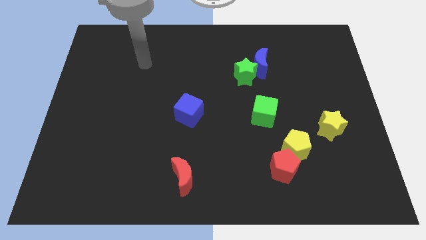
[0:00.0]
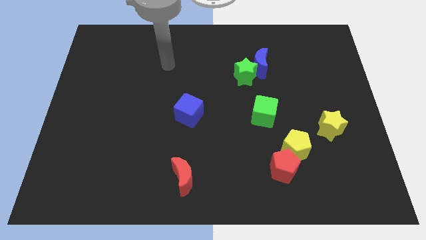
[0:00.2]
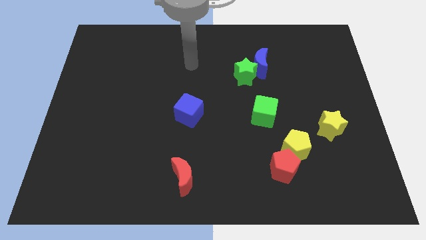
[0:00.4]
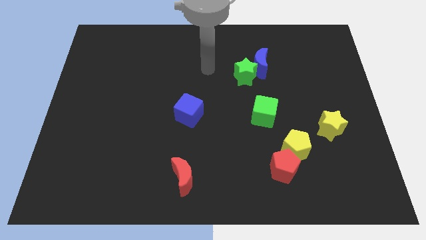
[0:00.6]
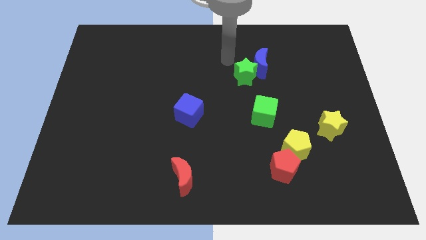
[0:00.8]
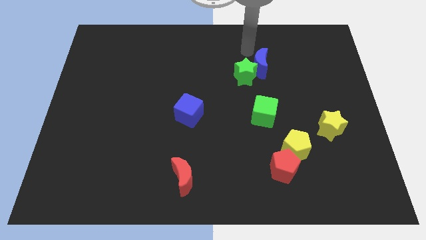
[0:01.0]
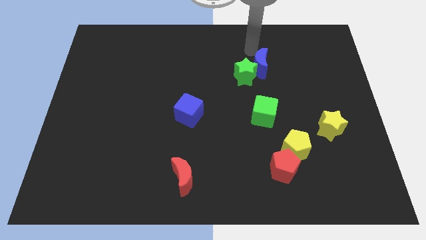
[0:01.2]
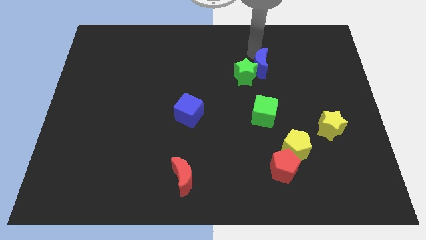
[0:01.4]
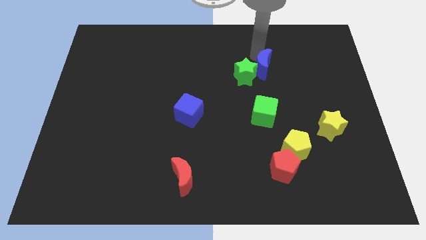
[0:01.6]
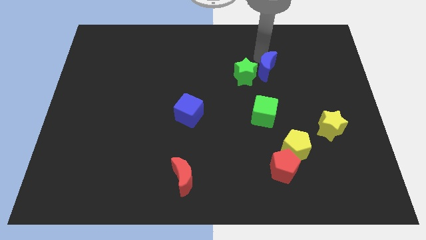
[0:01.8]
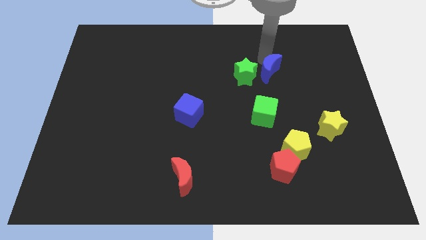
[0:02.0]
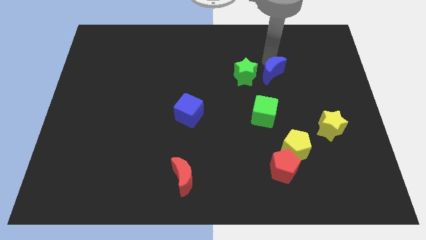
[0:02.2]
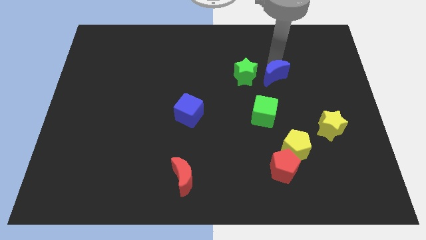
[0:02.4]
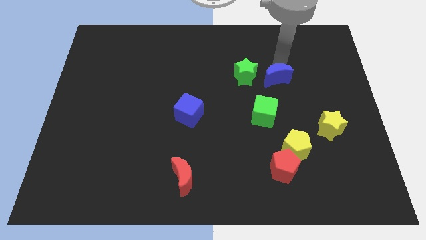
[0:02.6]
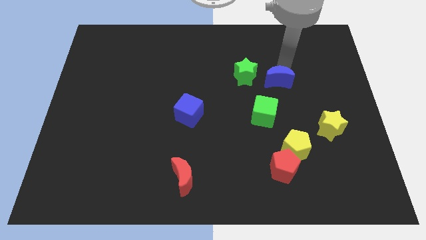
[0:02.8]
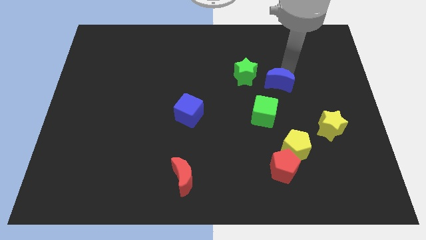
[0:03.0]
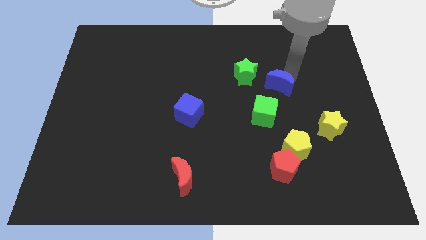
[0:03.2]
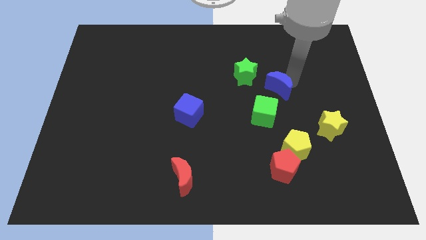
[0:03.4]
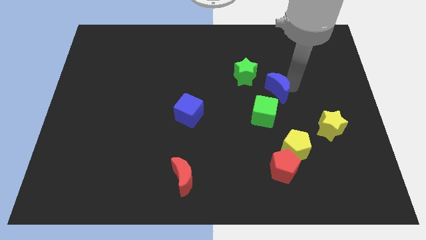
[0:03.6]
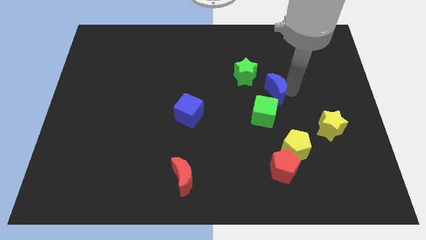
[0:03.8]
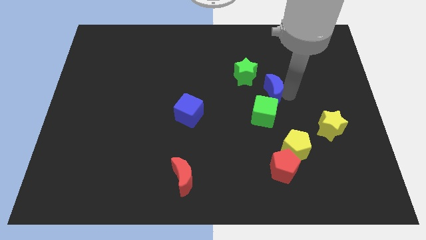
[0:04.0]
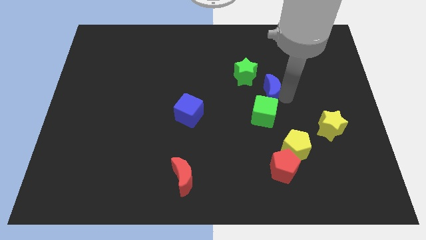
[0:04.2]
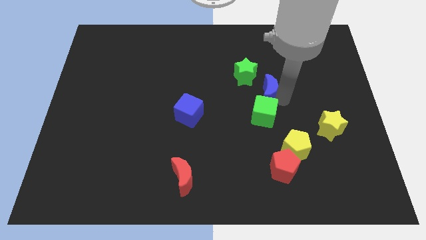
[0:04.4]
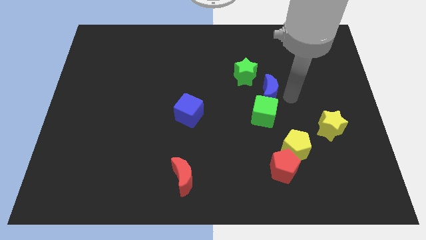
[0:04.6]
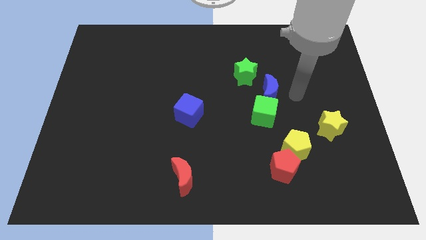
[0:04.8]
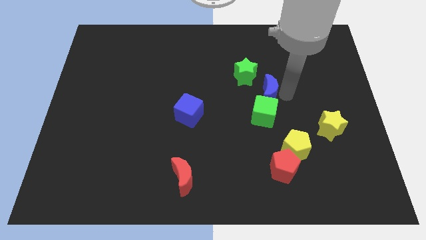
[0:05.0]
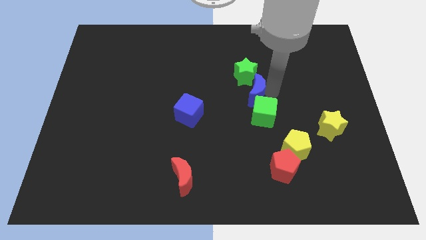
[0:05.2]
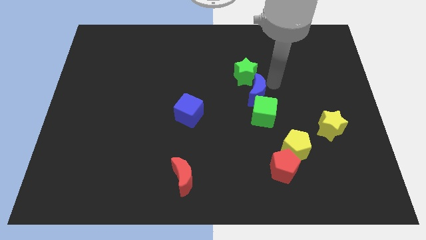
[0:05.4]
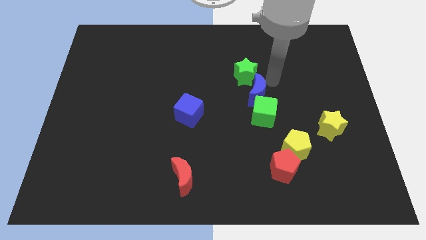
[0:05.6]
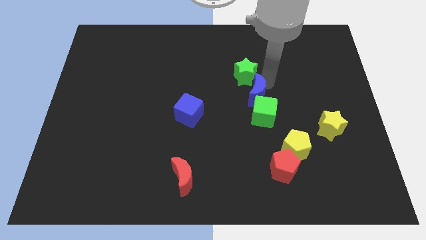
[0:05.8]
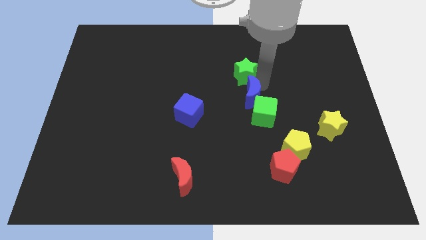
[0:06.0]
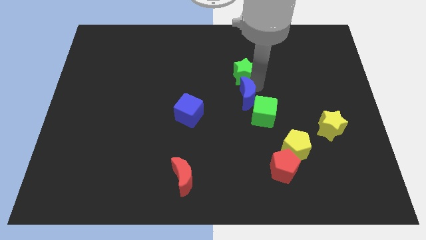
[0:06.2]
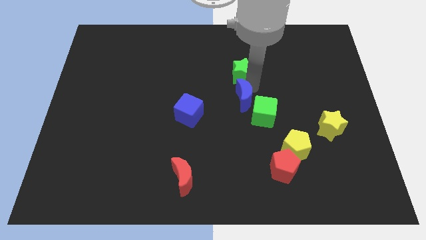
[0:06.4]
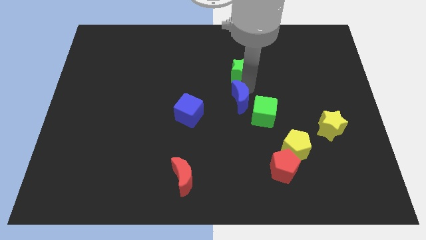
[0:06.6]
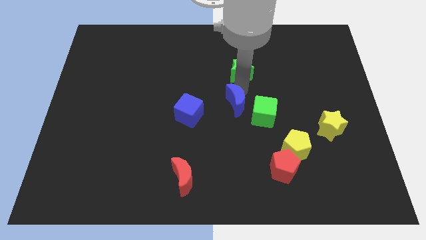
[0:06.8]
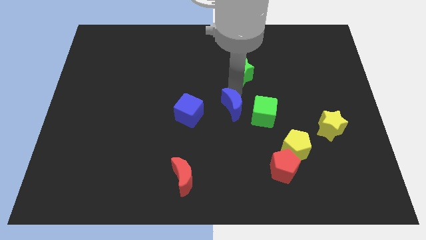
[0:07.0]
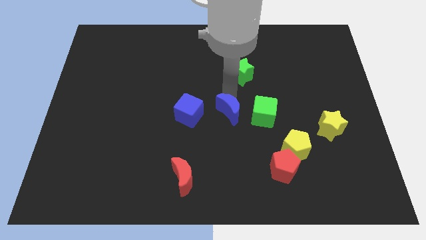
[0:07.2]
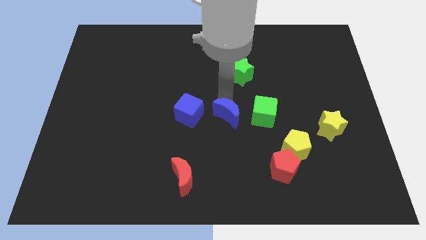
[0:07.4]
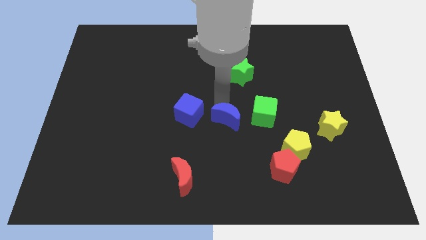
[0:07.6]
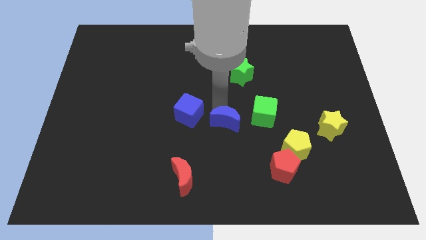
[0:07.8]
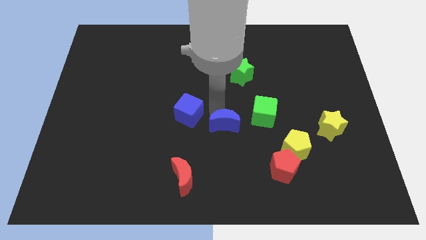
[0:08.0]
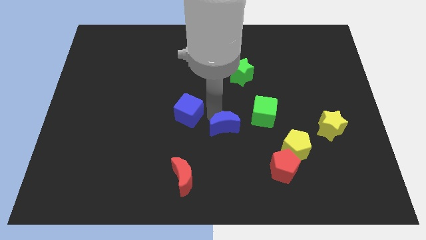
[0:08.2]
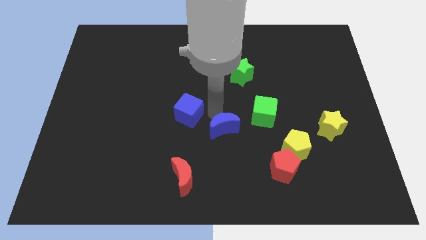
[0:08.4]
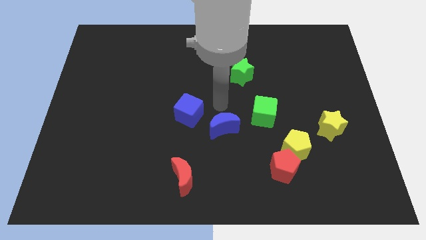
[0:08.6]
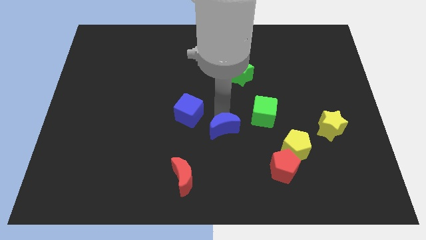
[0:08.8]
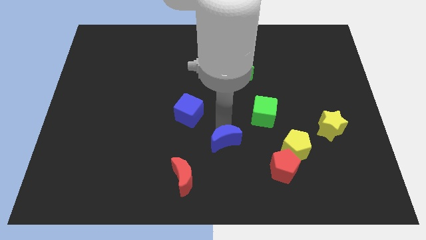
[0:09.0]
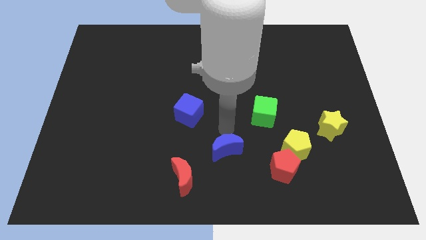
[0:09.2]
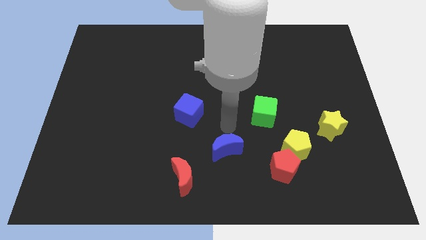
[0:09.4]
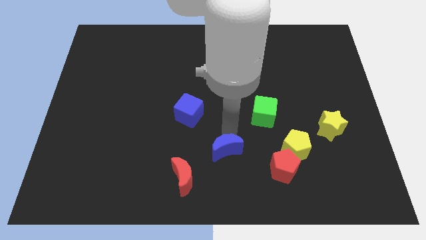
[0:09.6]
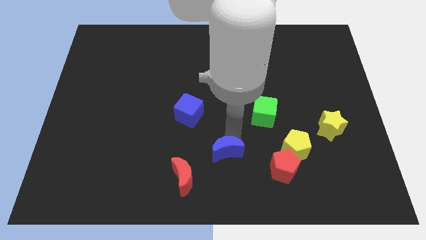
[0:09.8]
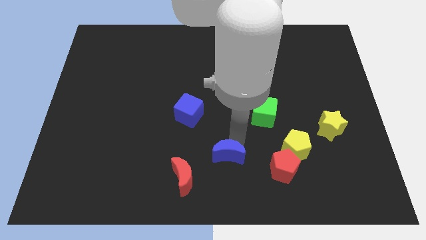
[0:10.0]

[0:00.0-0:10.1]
push the blue moon to the bottom

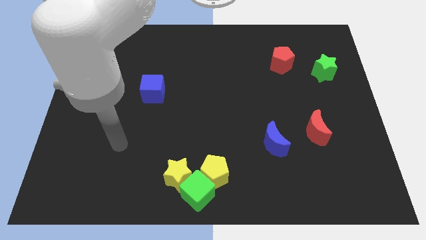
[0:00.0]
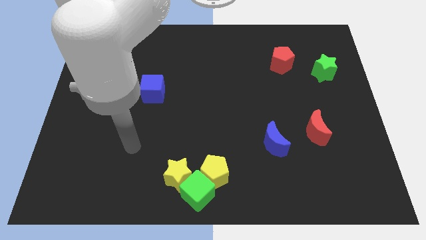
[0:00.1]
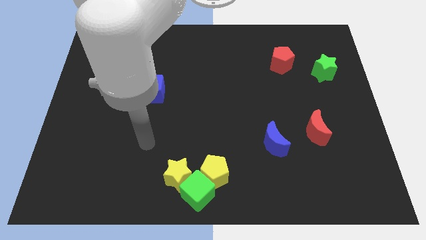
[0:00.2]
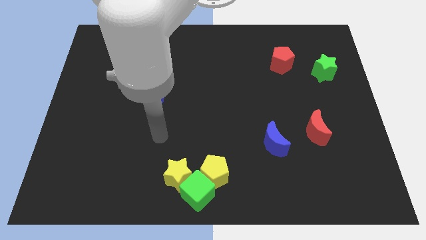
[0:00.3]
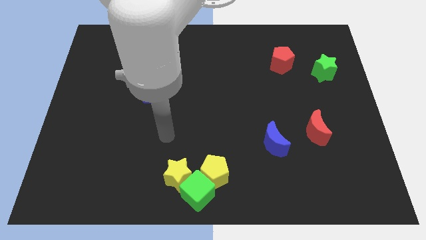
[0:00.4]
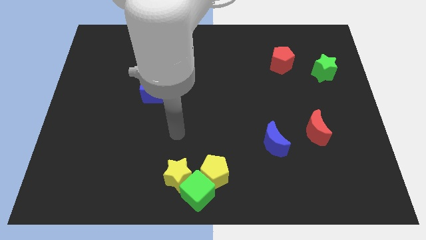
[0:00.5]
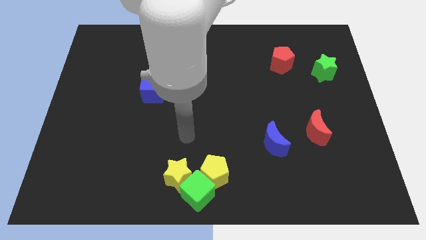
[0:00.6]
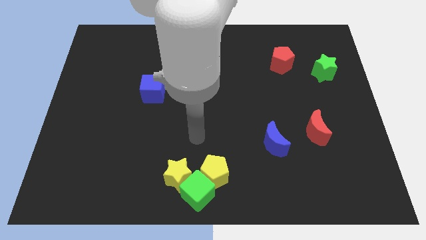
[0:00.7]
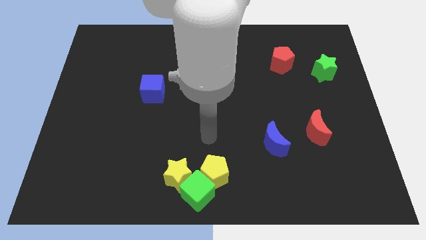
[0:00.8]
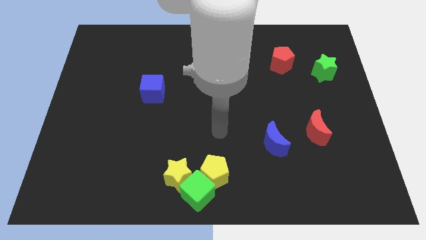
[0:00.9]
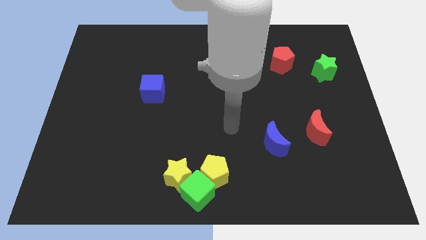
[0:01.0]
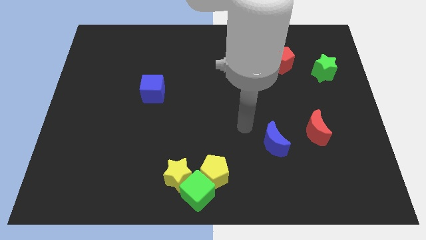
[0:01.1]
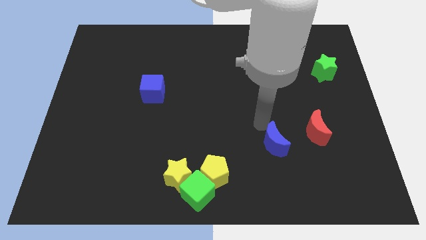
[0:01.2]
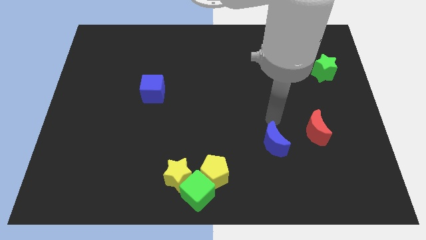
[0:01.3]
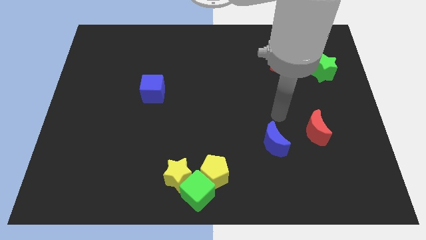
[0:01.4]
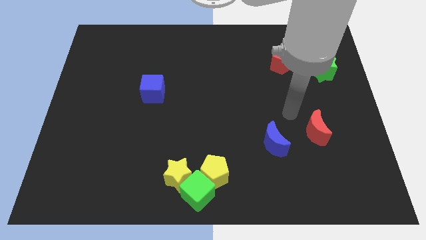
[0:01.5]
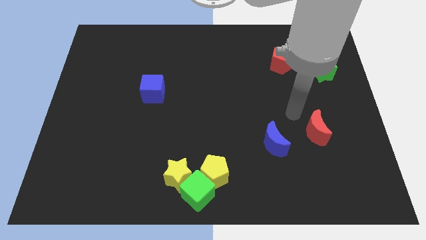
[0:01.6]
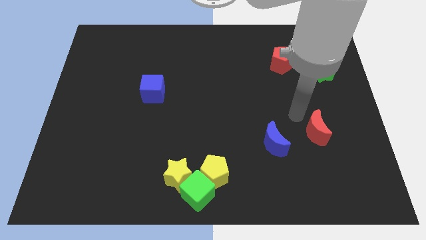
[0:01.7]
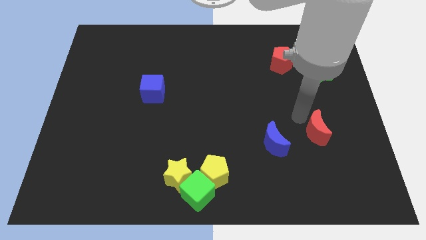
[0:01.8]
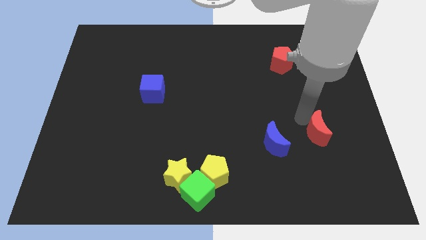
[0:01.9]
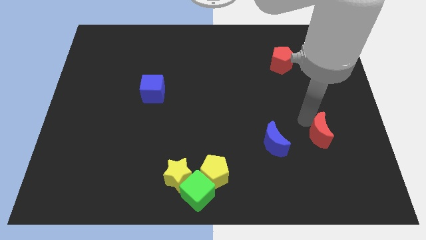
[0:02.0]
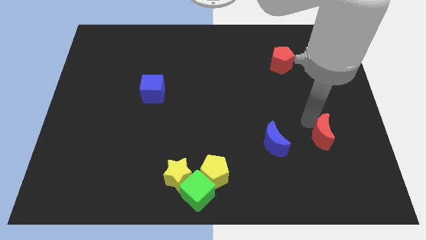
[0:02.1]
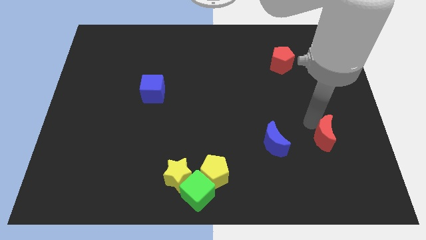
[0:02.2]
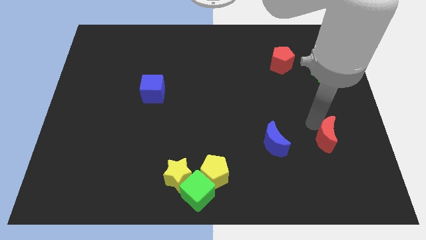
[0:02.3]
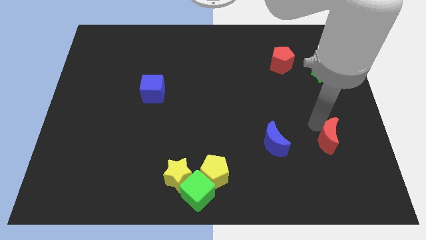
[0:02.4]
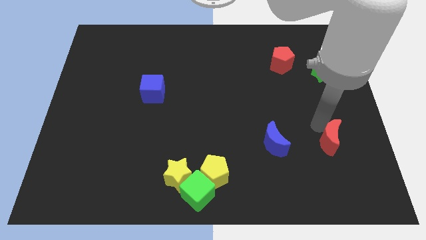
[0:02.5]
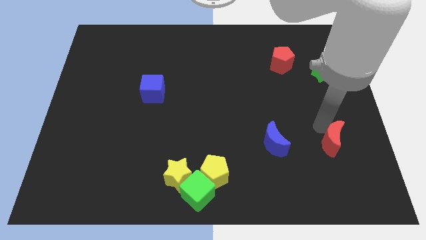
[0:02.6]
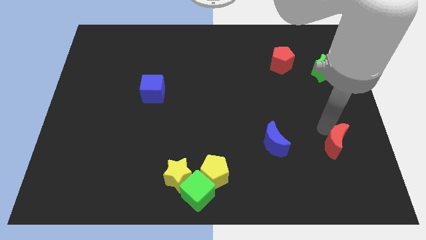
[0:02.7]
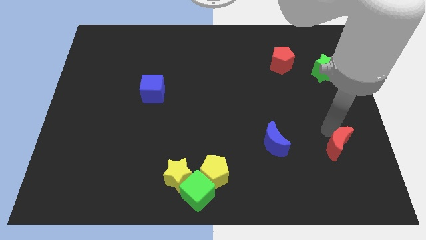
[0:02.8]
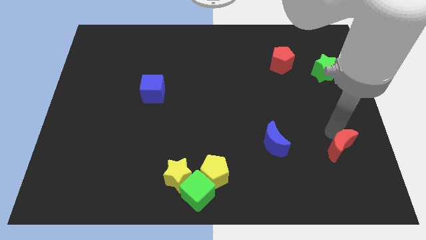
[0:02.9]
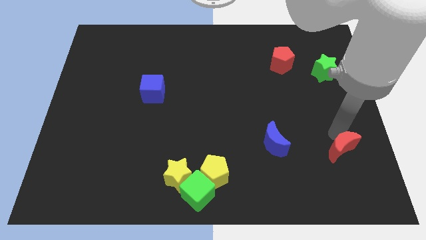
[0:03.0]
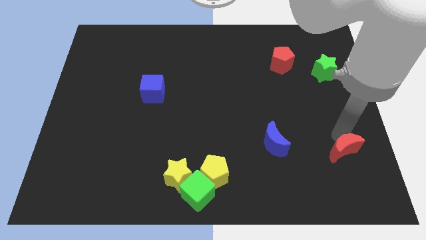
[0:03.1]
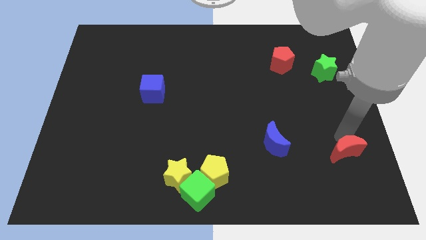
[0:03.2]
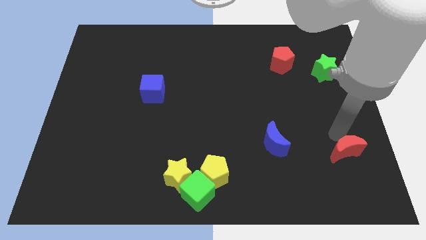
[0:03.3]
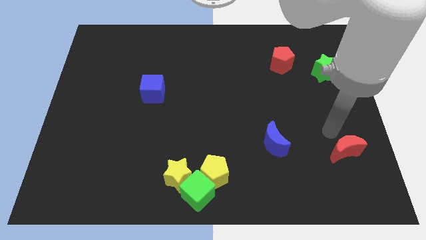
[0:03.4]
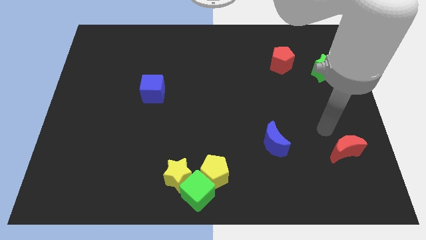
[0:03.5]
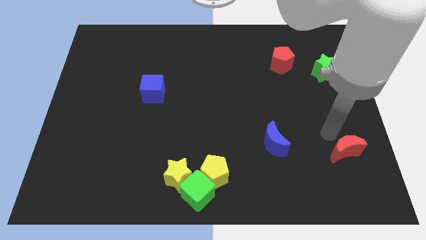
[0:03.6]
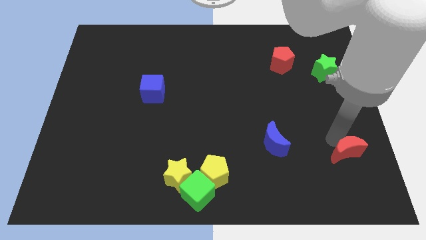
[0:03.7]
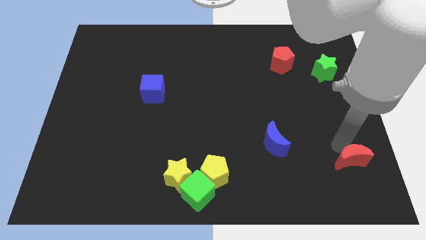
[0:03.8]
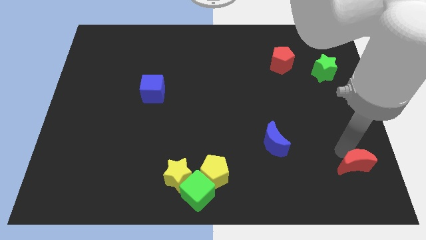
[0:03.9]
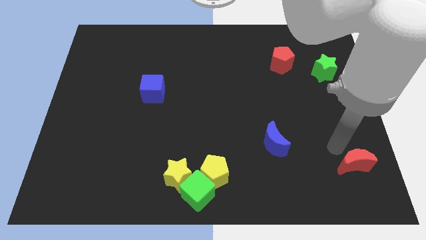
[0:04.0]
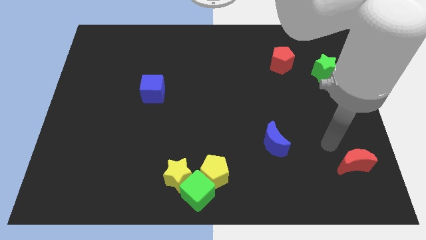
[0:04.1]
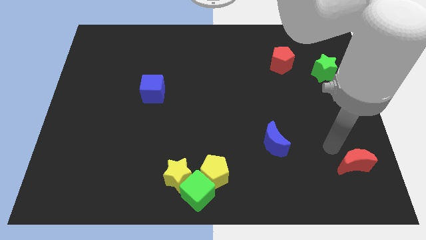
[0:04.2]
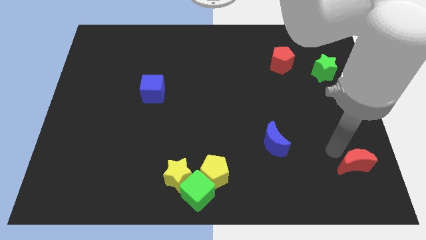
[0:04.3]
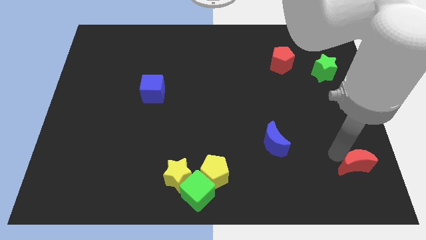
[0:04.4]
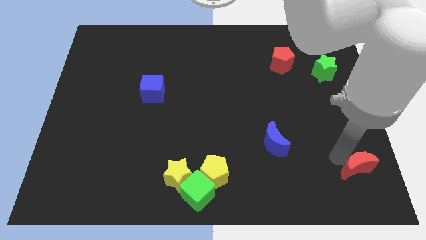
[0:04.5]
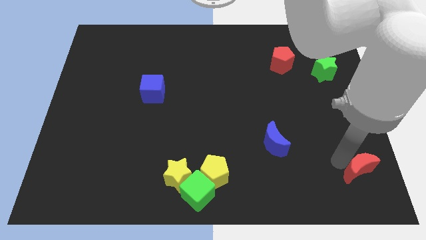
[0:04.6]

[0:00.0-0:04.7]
move the red moon to the bottom right
